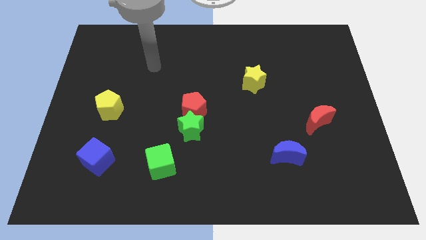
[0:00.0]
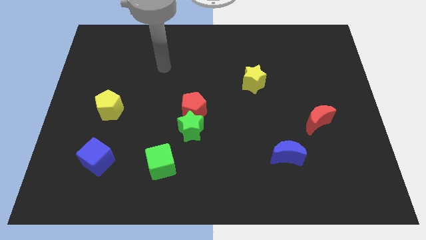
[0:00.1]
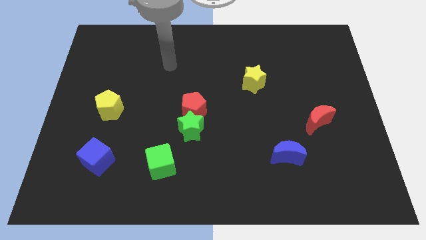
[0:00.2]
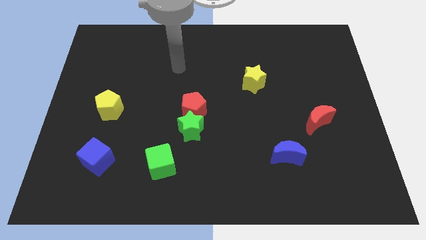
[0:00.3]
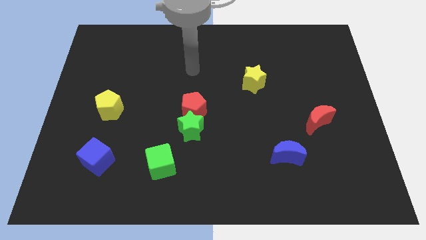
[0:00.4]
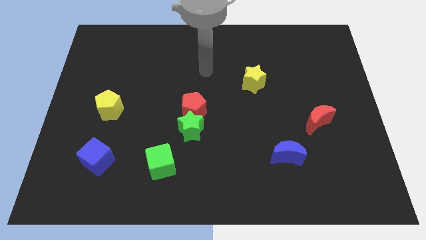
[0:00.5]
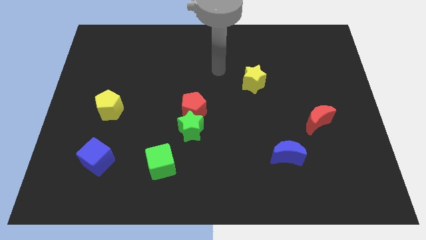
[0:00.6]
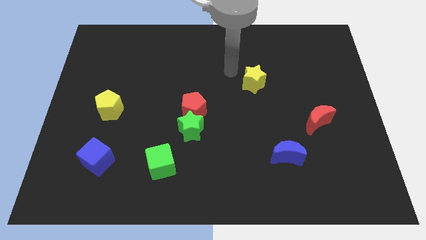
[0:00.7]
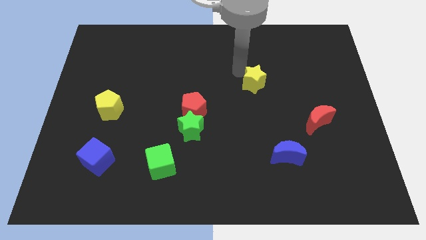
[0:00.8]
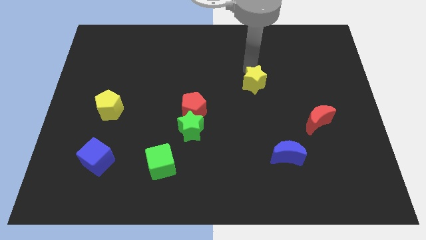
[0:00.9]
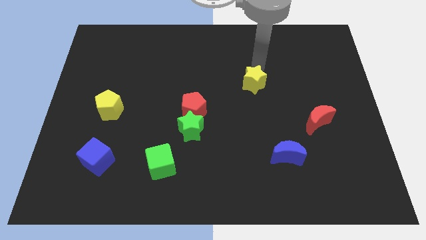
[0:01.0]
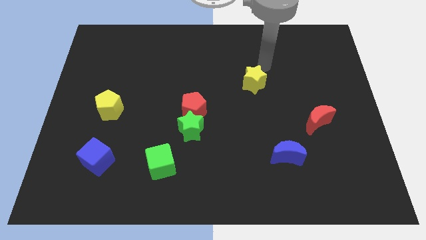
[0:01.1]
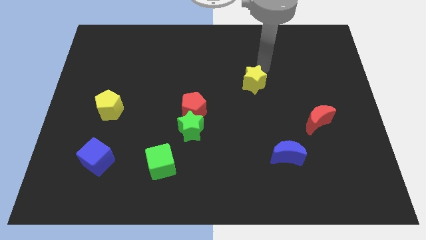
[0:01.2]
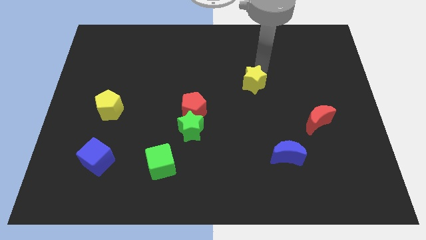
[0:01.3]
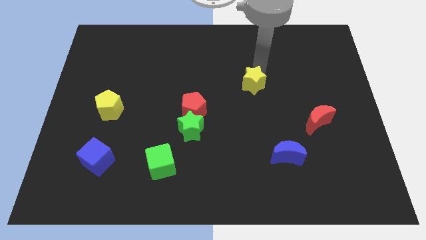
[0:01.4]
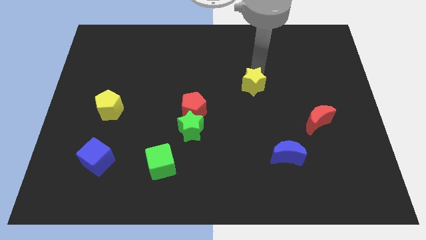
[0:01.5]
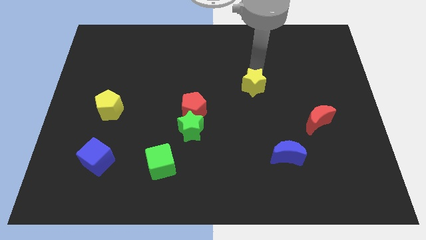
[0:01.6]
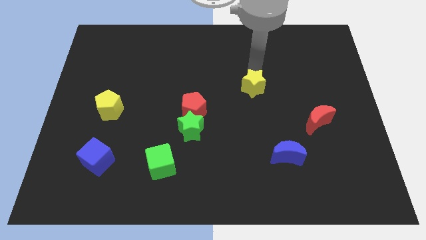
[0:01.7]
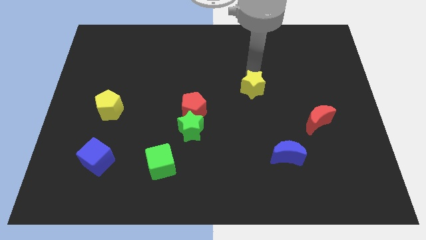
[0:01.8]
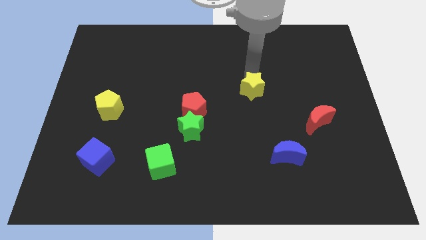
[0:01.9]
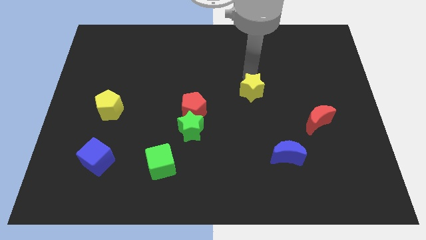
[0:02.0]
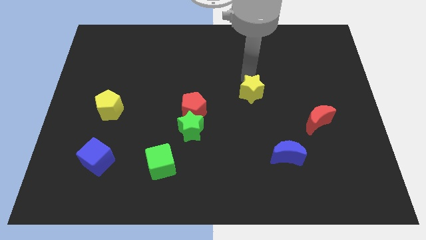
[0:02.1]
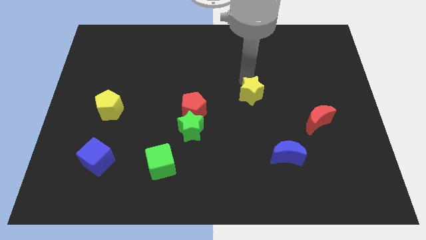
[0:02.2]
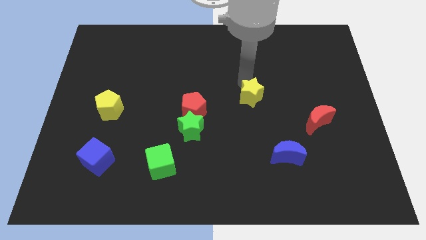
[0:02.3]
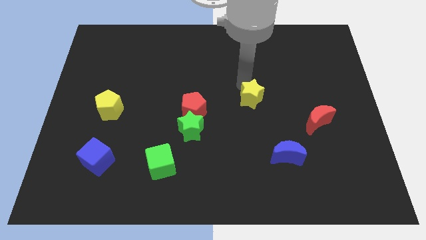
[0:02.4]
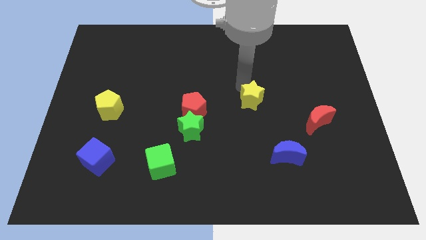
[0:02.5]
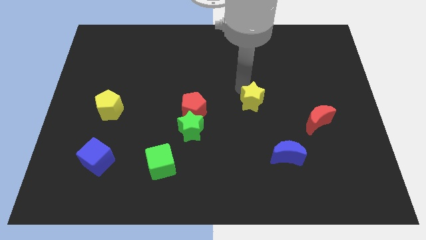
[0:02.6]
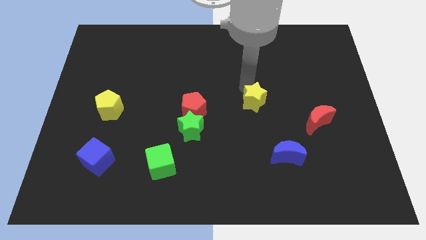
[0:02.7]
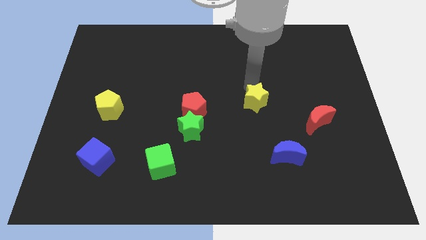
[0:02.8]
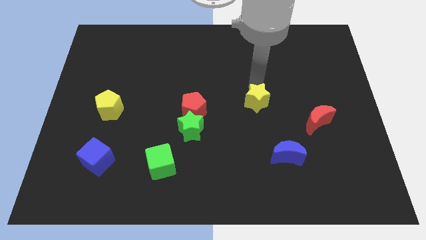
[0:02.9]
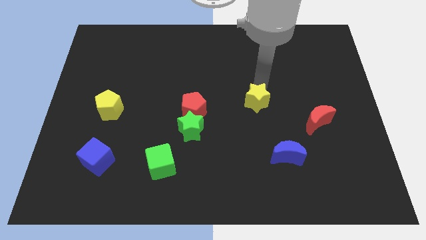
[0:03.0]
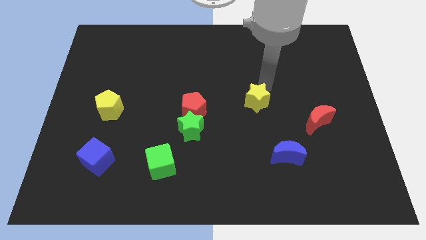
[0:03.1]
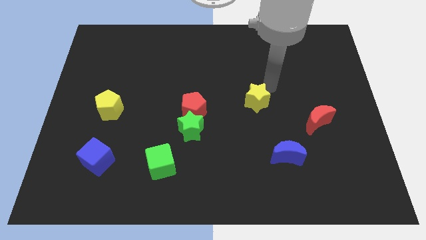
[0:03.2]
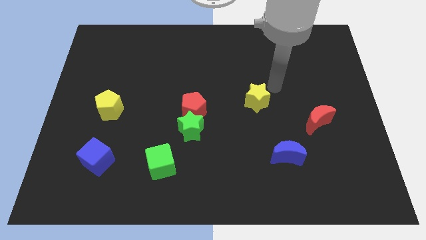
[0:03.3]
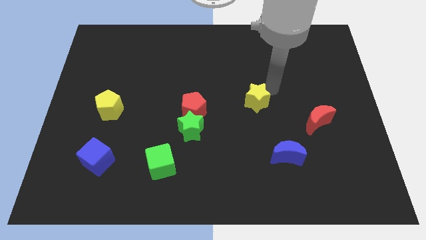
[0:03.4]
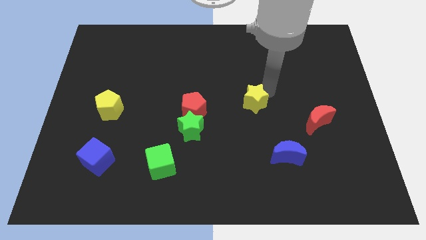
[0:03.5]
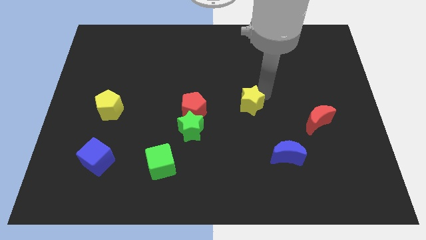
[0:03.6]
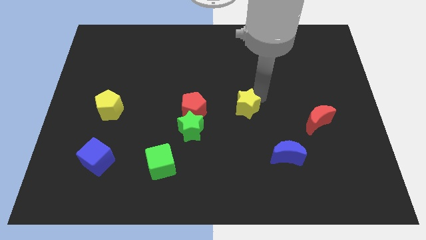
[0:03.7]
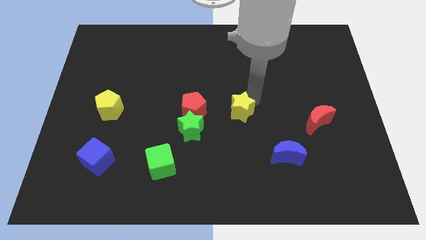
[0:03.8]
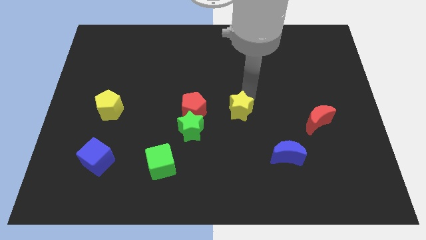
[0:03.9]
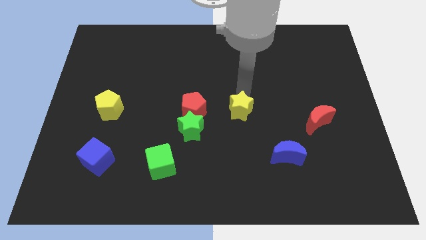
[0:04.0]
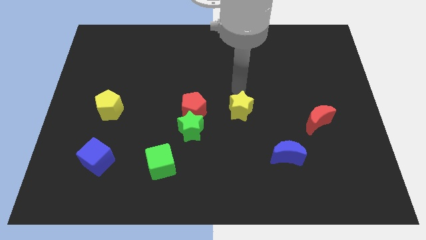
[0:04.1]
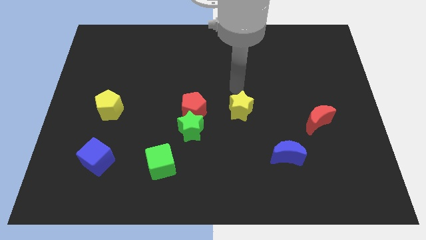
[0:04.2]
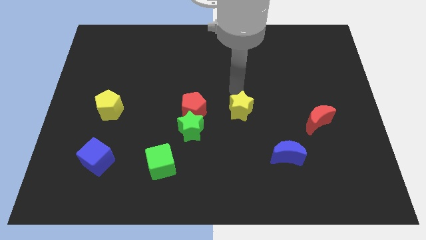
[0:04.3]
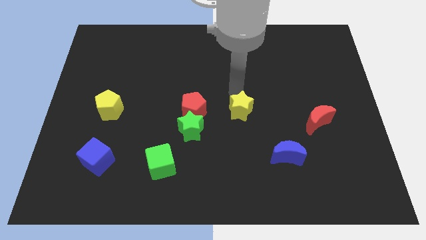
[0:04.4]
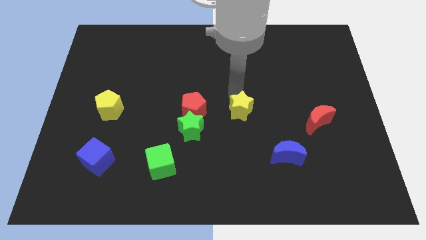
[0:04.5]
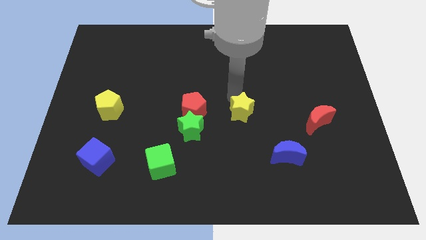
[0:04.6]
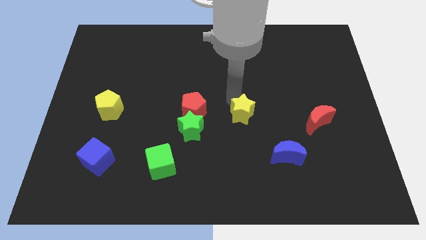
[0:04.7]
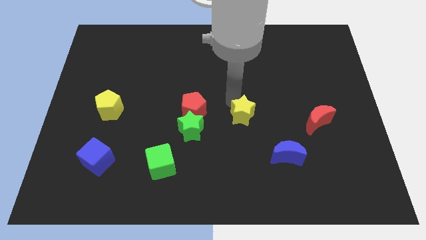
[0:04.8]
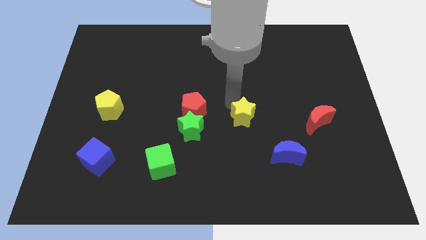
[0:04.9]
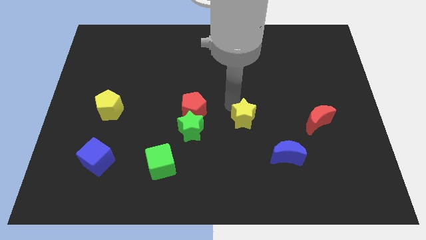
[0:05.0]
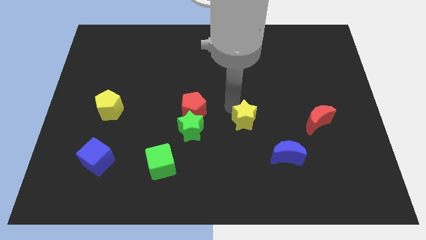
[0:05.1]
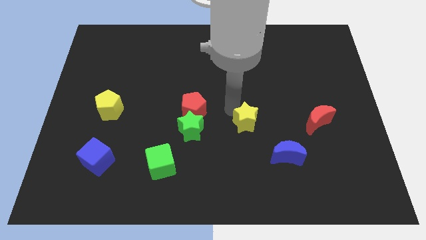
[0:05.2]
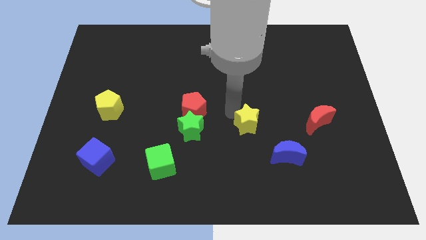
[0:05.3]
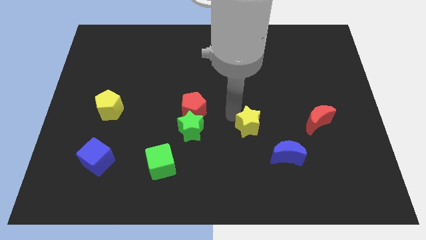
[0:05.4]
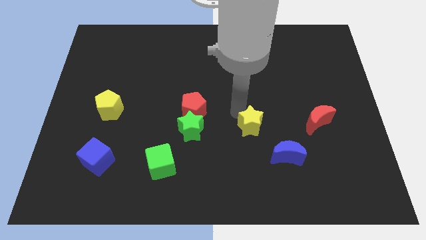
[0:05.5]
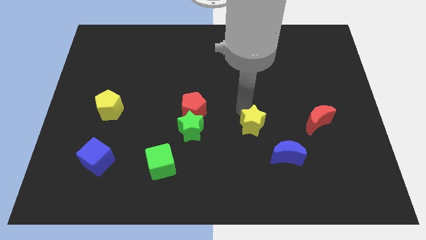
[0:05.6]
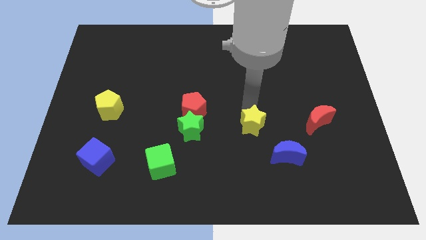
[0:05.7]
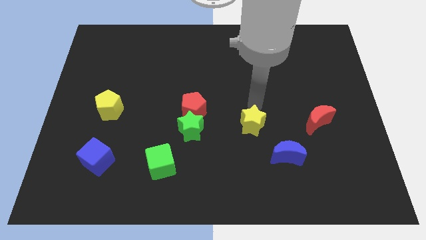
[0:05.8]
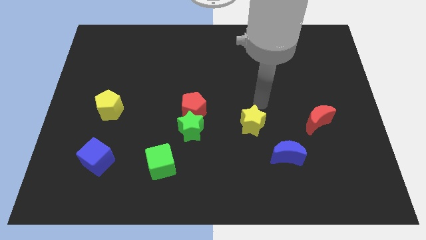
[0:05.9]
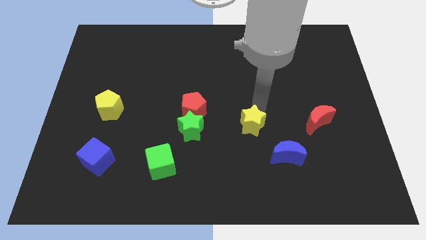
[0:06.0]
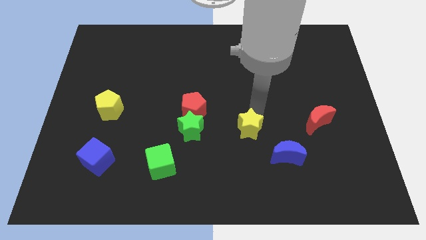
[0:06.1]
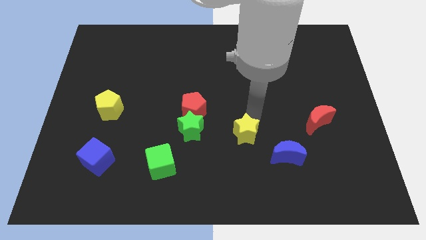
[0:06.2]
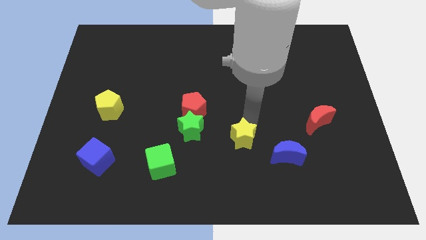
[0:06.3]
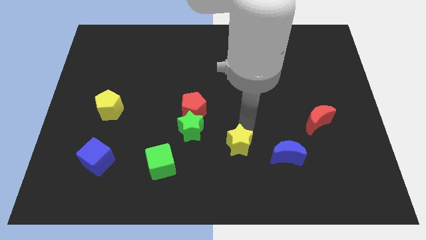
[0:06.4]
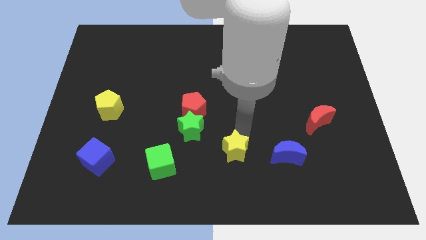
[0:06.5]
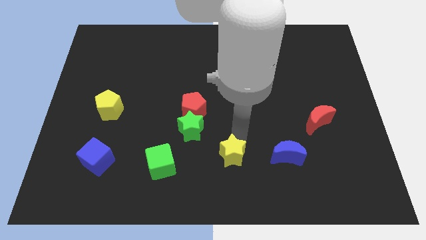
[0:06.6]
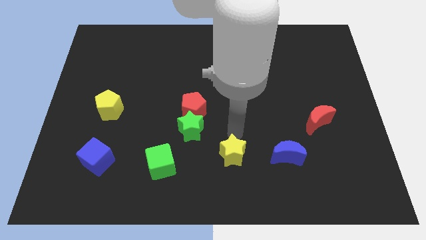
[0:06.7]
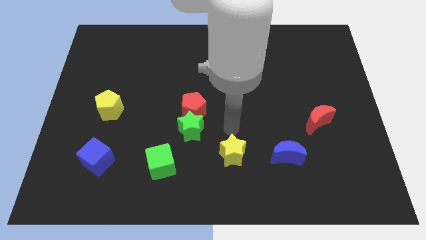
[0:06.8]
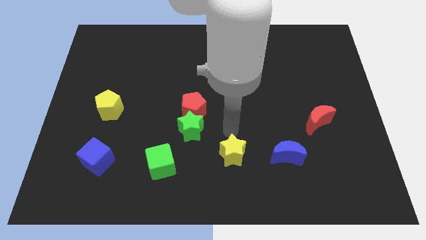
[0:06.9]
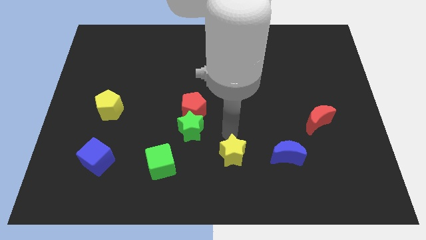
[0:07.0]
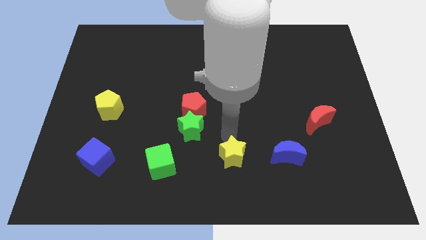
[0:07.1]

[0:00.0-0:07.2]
push the yellow star to the bottom side
